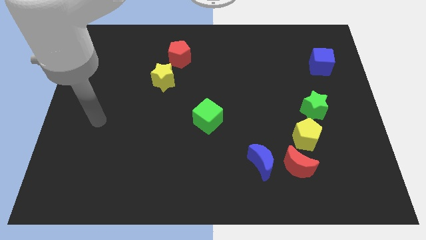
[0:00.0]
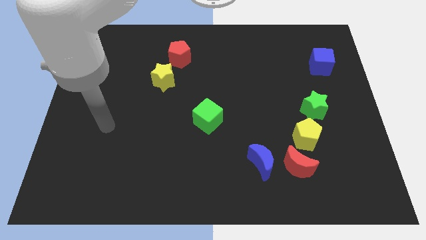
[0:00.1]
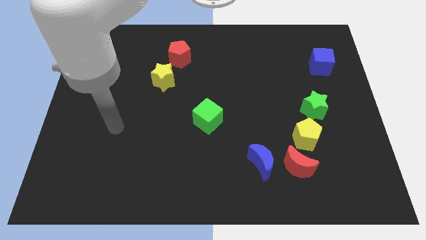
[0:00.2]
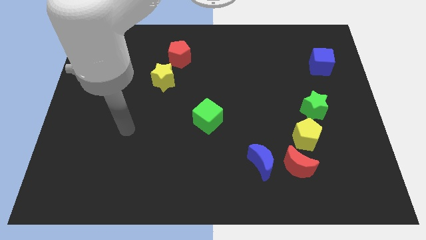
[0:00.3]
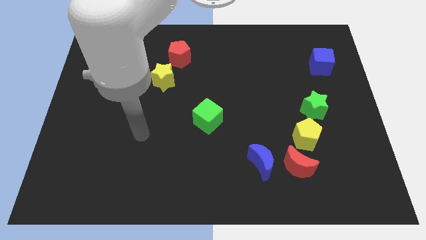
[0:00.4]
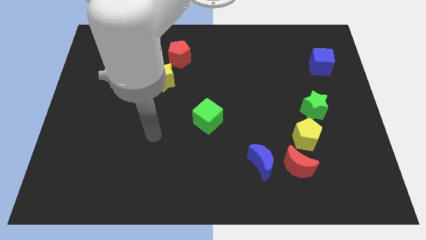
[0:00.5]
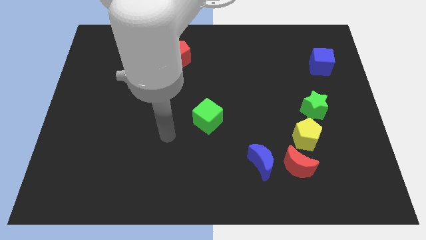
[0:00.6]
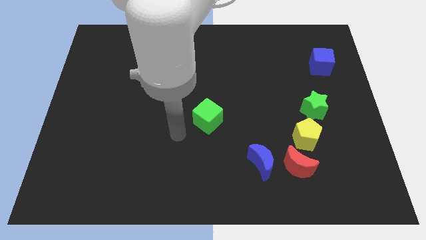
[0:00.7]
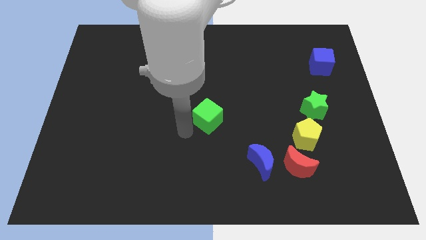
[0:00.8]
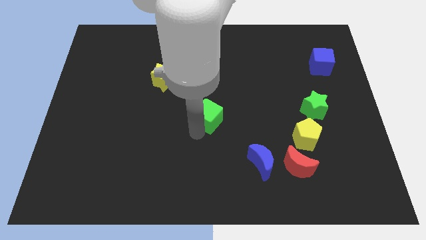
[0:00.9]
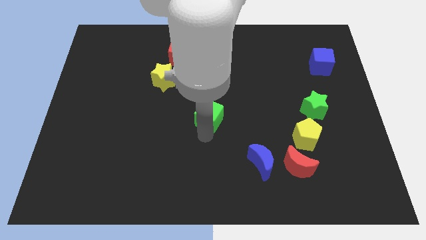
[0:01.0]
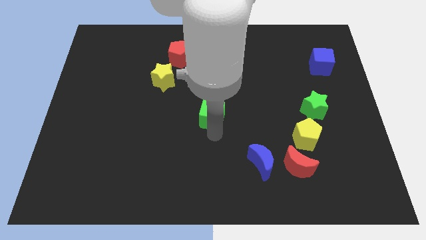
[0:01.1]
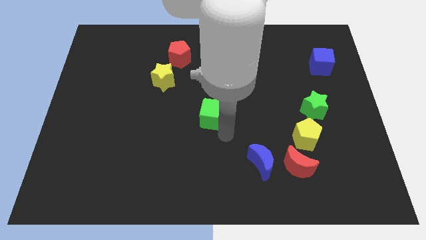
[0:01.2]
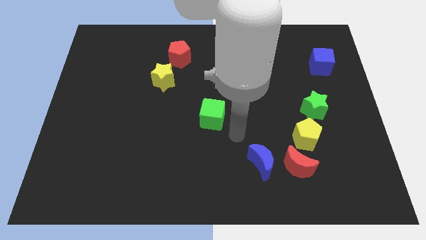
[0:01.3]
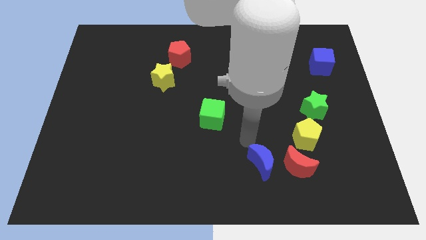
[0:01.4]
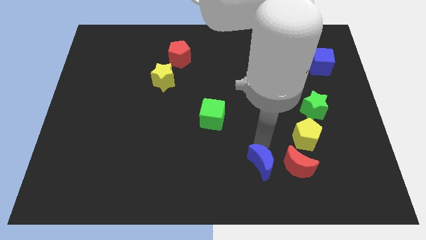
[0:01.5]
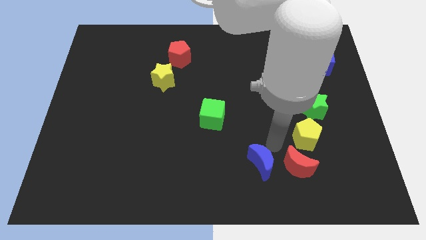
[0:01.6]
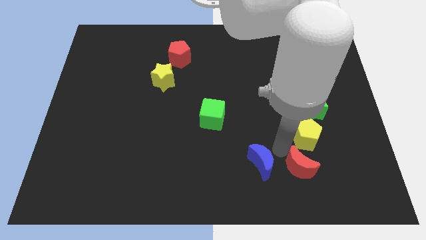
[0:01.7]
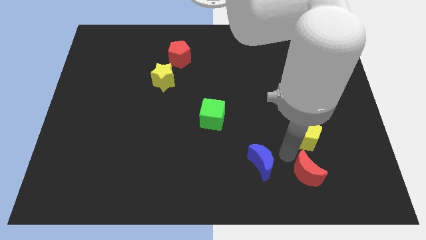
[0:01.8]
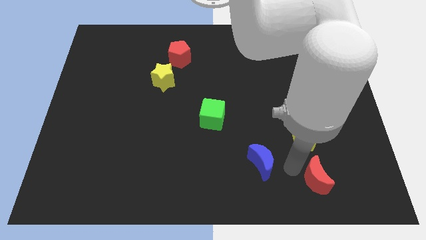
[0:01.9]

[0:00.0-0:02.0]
separate the blue moon from the red moon

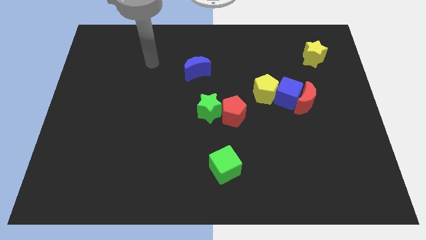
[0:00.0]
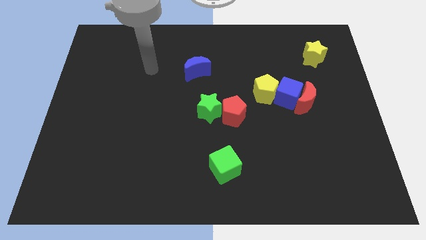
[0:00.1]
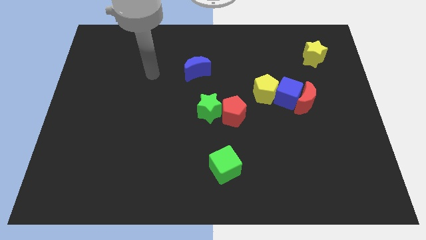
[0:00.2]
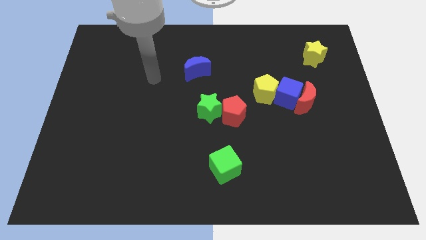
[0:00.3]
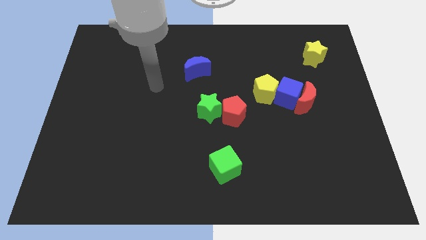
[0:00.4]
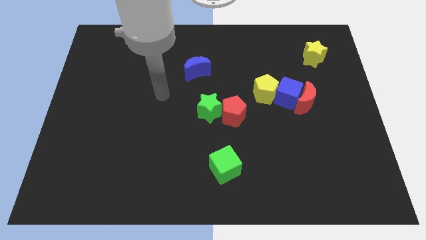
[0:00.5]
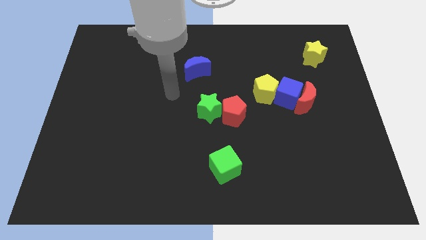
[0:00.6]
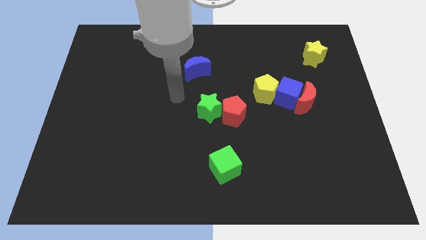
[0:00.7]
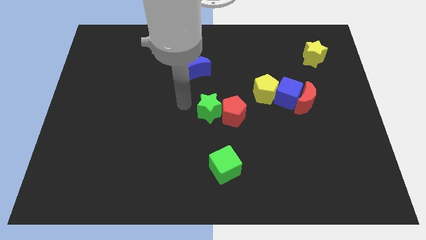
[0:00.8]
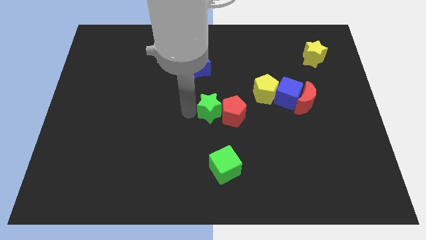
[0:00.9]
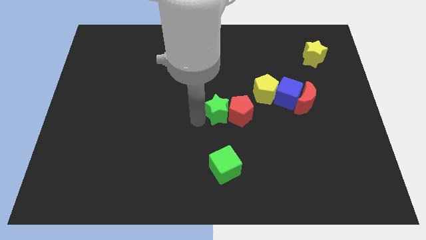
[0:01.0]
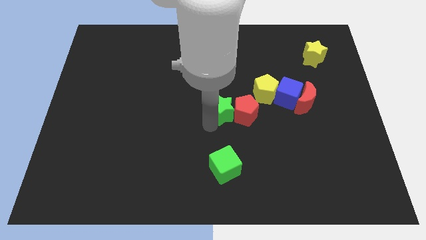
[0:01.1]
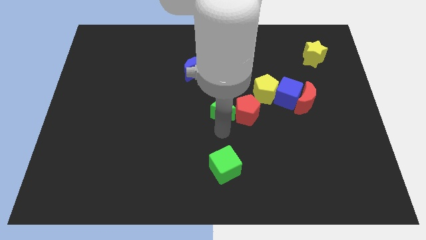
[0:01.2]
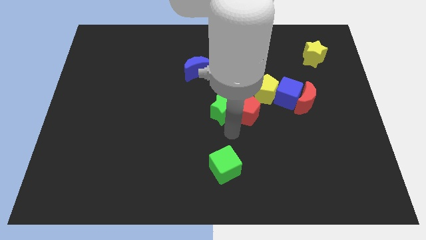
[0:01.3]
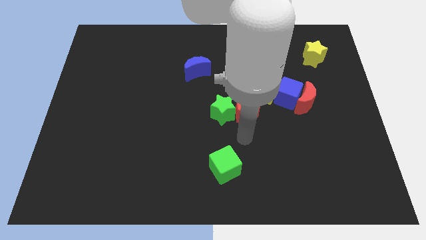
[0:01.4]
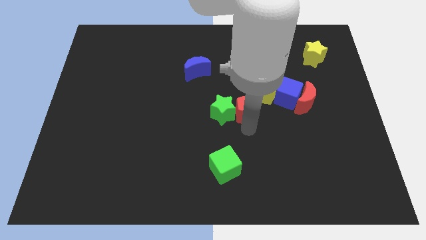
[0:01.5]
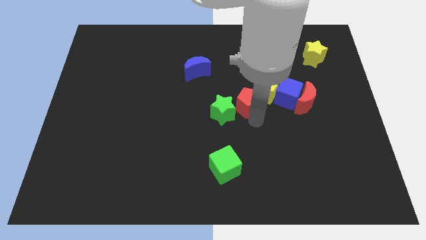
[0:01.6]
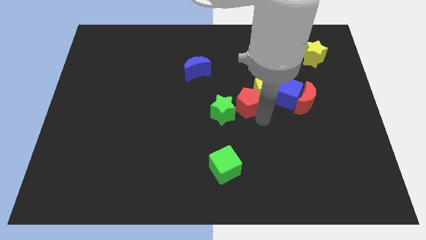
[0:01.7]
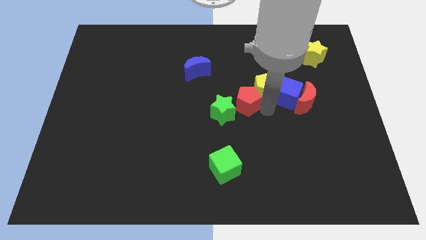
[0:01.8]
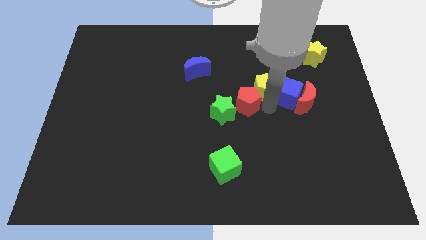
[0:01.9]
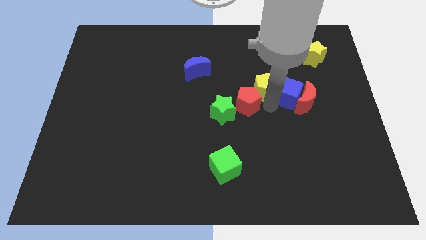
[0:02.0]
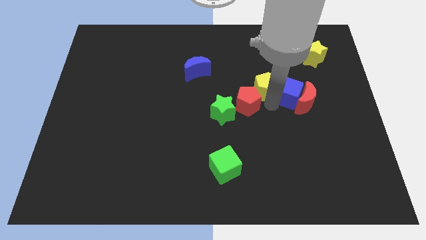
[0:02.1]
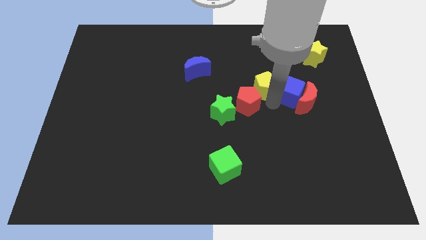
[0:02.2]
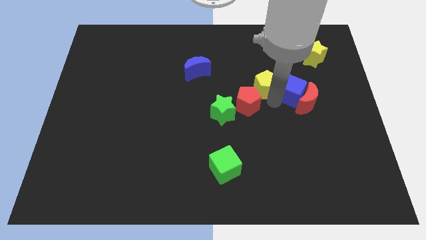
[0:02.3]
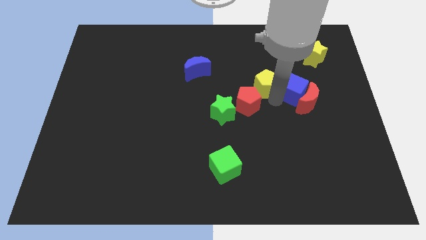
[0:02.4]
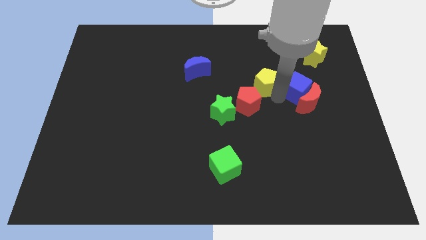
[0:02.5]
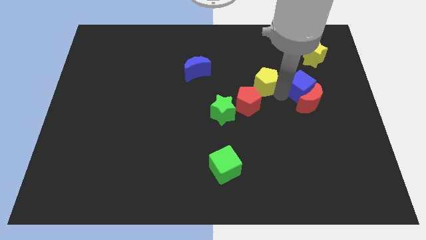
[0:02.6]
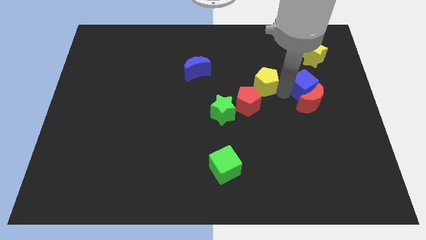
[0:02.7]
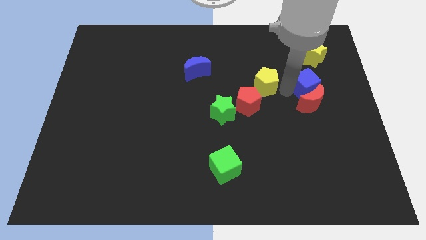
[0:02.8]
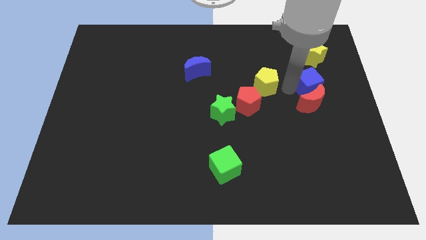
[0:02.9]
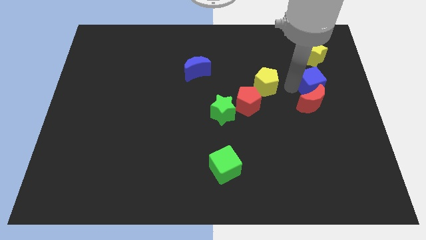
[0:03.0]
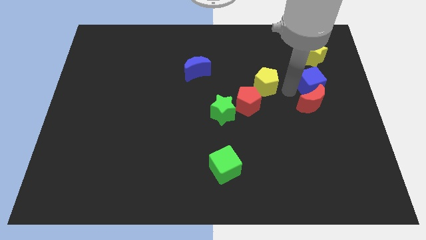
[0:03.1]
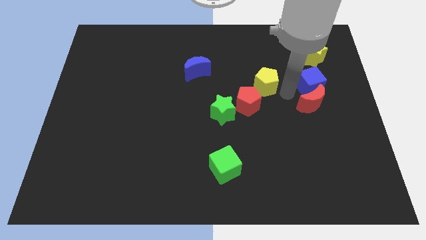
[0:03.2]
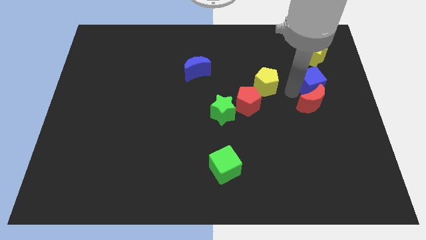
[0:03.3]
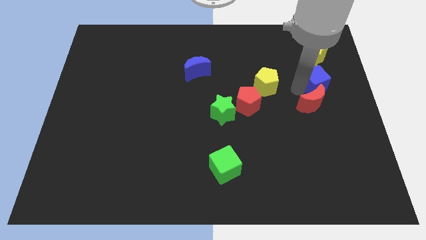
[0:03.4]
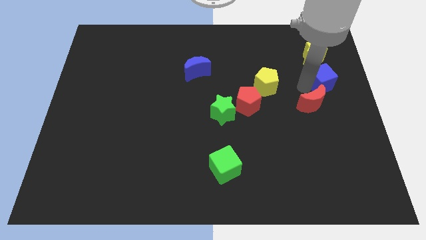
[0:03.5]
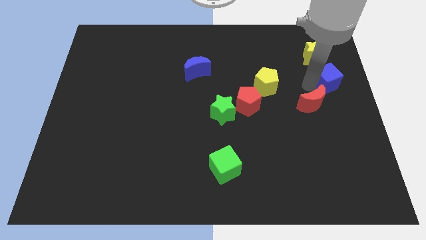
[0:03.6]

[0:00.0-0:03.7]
separate the blue cube from the red moon and yellow pentagon

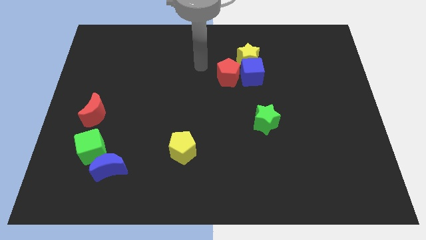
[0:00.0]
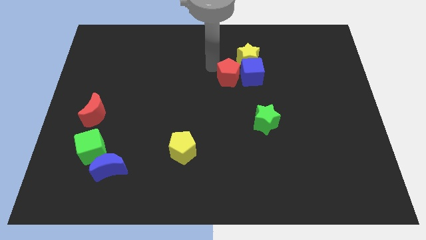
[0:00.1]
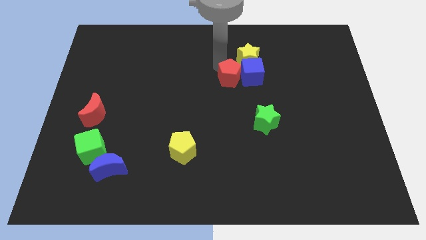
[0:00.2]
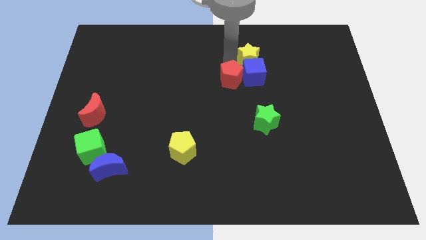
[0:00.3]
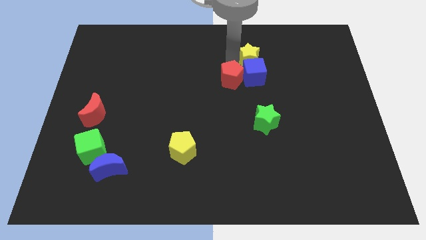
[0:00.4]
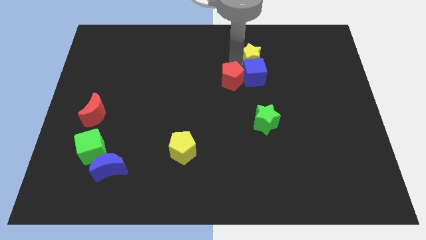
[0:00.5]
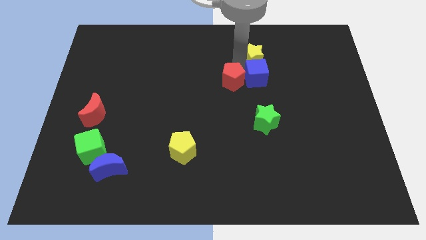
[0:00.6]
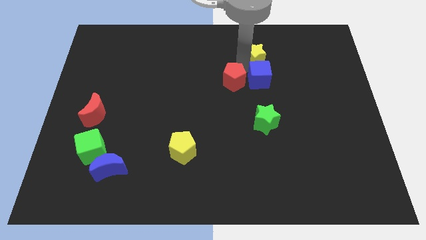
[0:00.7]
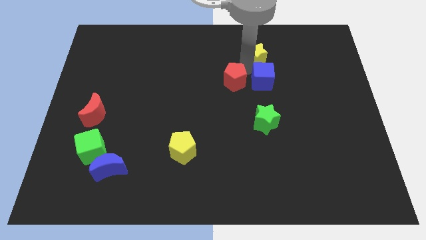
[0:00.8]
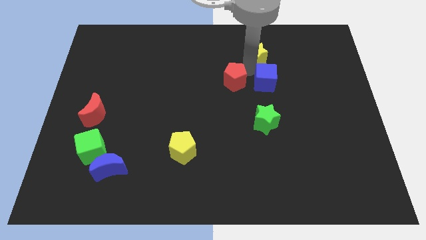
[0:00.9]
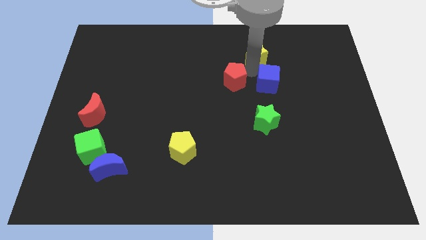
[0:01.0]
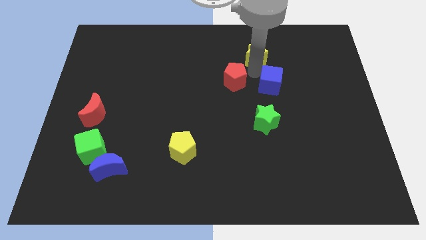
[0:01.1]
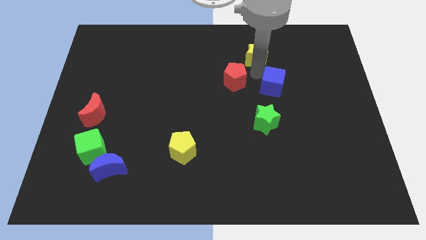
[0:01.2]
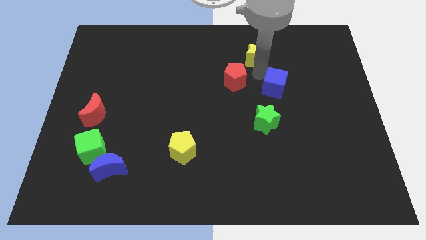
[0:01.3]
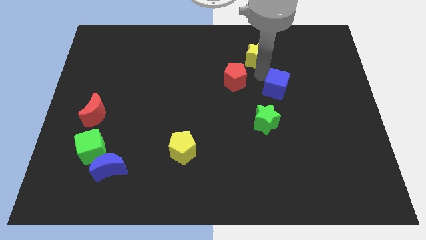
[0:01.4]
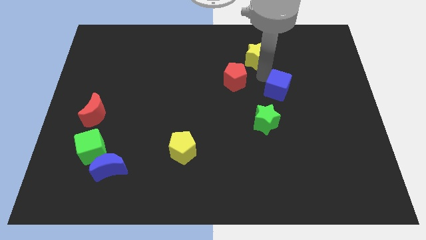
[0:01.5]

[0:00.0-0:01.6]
move the blue cube away from the yellow star and red pentagon

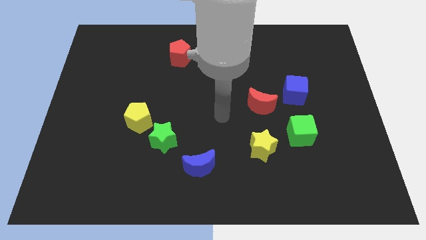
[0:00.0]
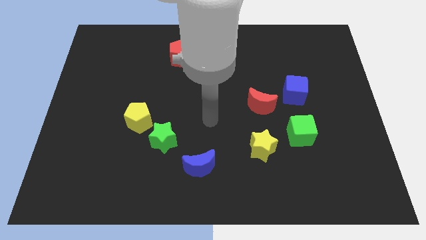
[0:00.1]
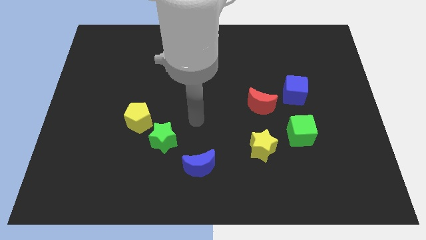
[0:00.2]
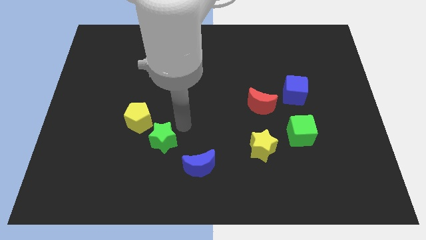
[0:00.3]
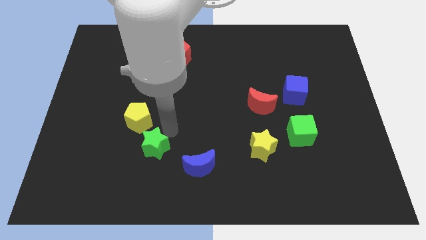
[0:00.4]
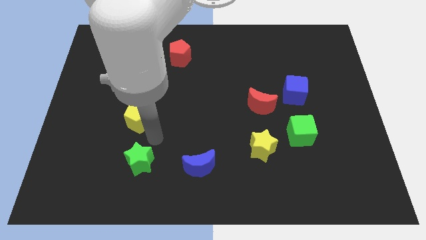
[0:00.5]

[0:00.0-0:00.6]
pull the yellow pentagon apart from the green star

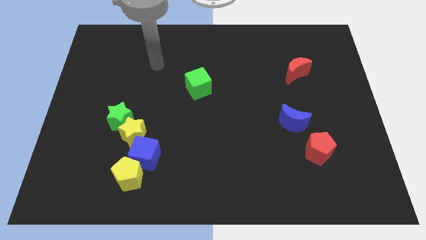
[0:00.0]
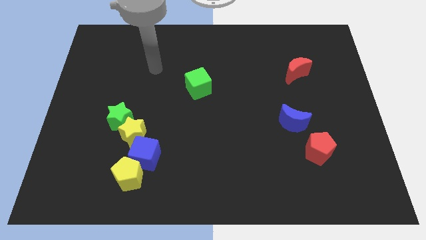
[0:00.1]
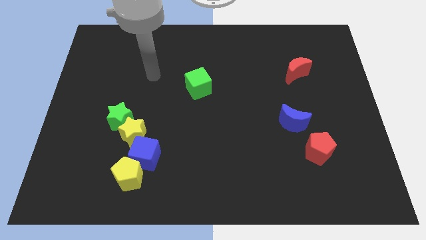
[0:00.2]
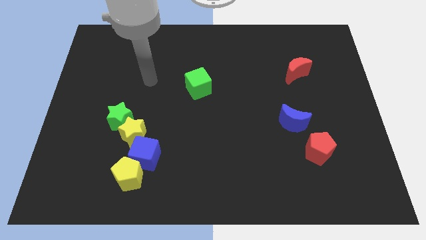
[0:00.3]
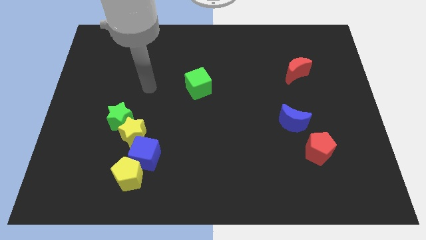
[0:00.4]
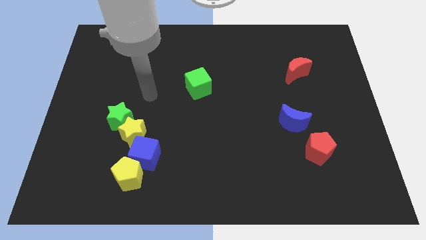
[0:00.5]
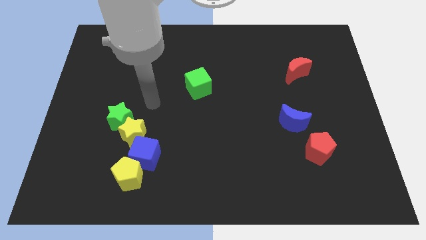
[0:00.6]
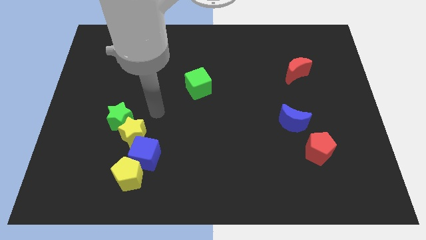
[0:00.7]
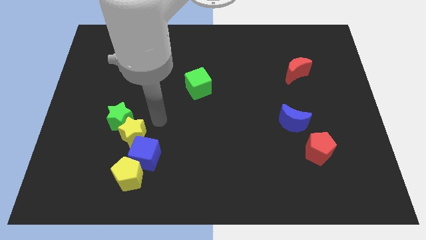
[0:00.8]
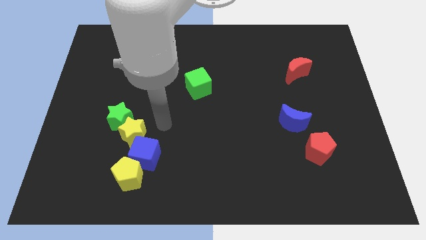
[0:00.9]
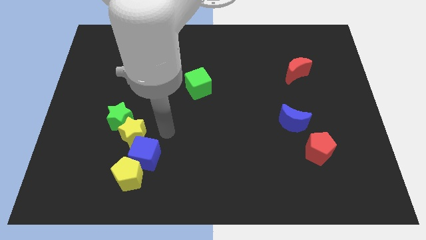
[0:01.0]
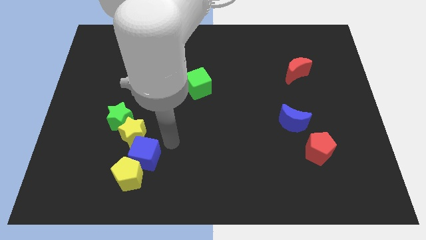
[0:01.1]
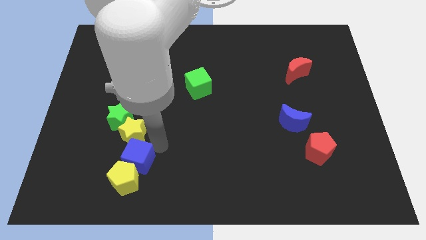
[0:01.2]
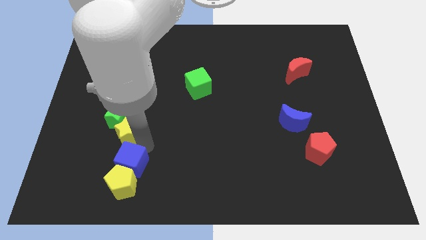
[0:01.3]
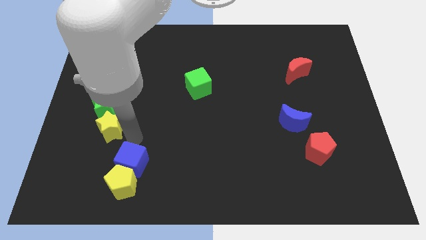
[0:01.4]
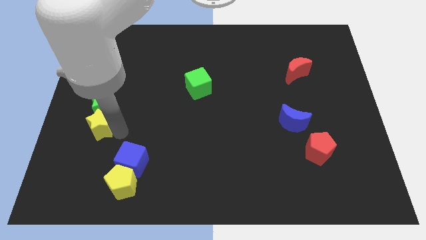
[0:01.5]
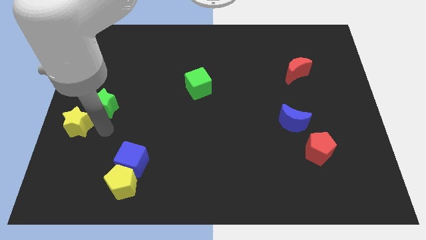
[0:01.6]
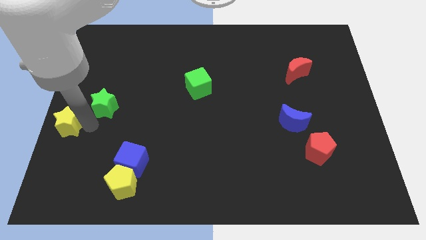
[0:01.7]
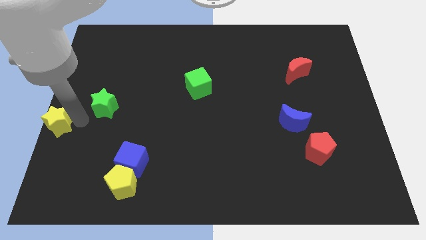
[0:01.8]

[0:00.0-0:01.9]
pull the green star apart from the yellow star
